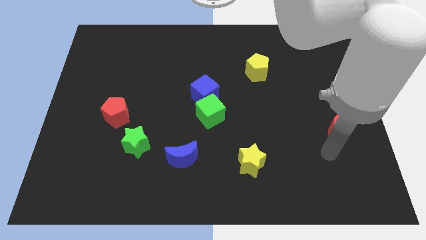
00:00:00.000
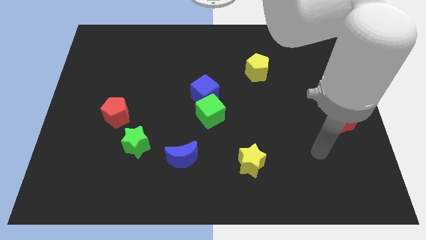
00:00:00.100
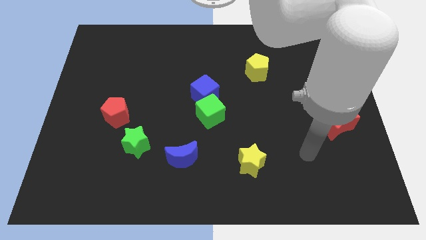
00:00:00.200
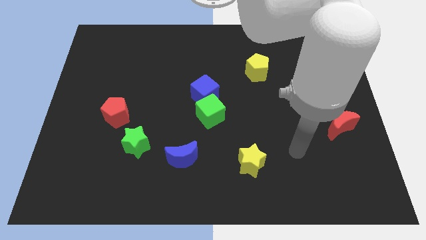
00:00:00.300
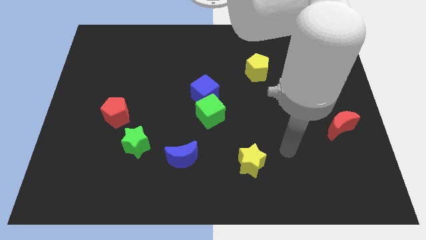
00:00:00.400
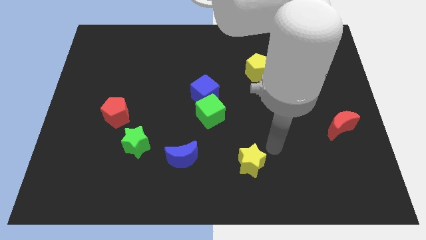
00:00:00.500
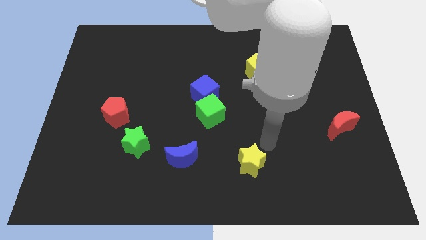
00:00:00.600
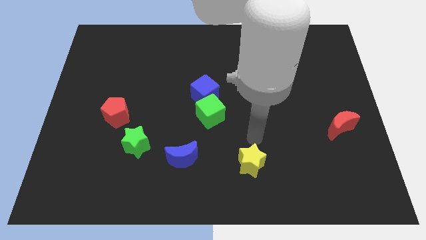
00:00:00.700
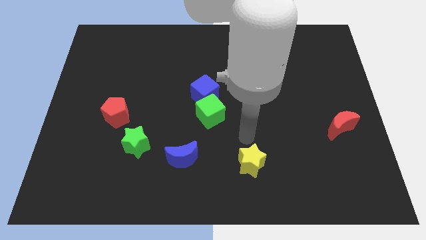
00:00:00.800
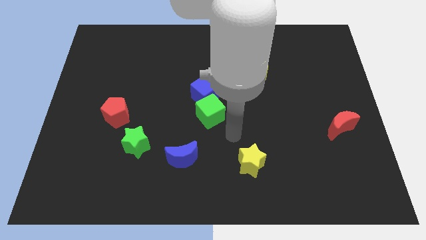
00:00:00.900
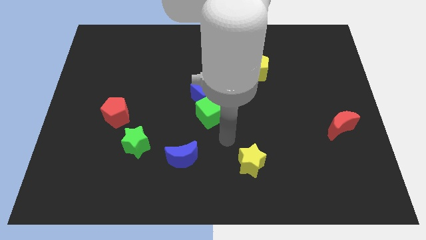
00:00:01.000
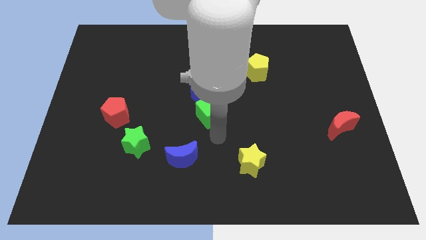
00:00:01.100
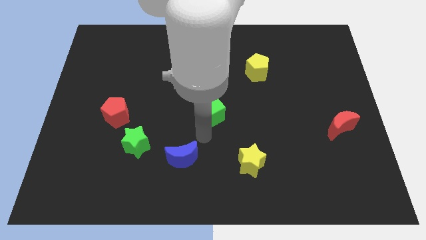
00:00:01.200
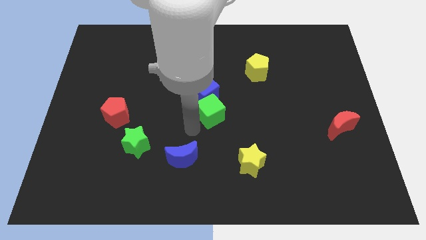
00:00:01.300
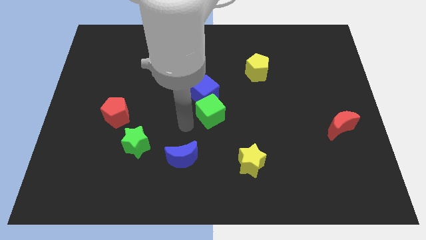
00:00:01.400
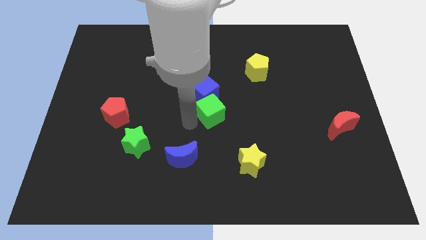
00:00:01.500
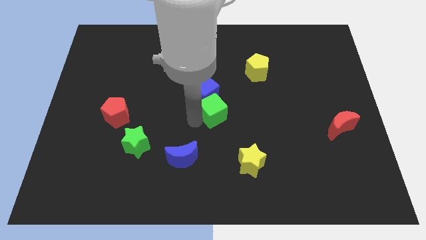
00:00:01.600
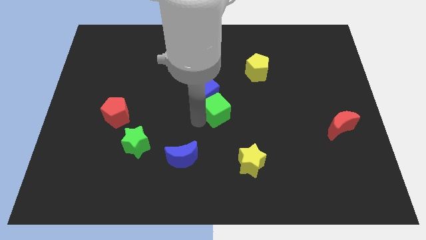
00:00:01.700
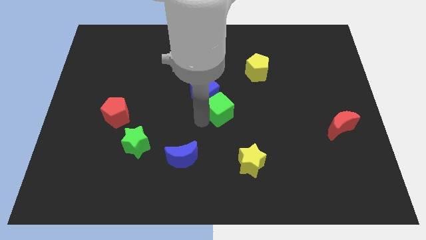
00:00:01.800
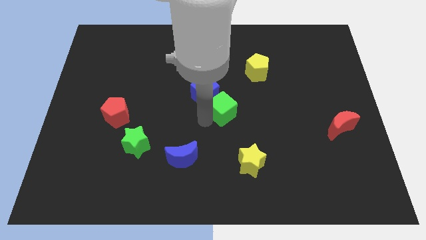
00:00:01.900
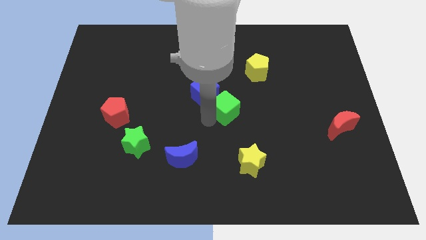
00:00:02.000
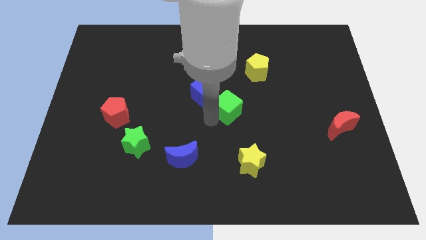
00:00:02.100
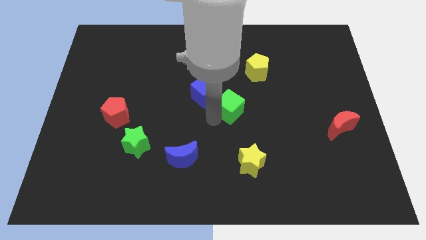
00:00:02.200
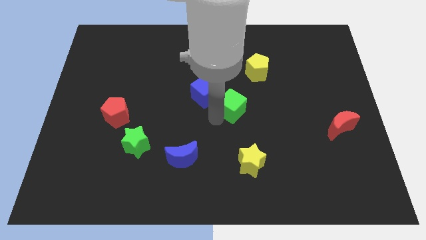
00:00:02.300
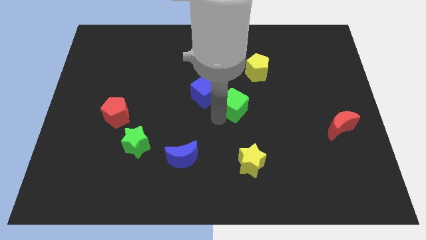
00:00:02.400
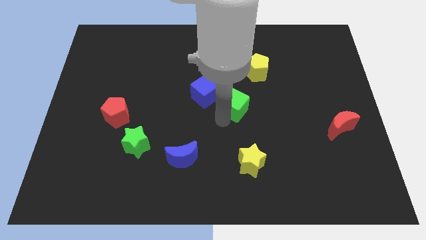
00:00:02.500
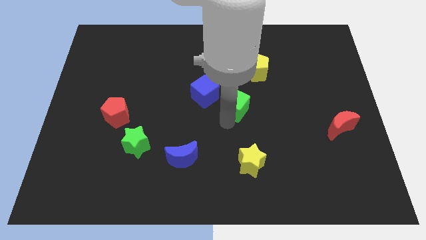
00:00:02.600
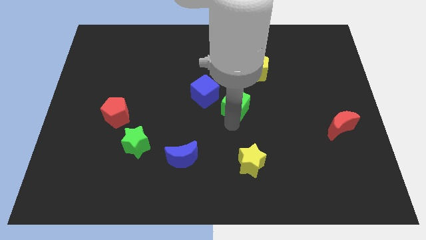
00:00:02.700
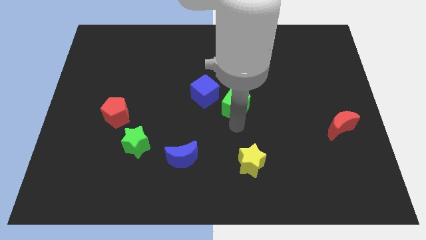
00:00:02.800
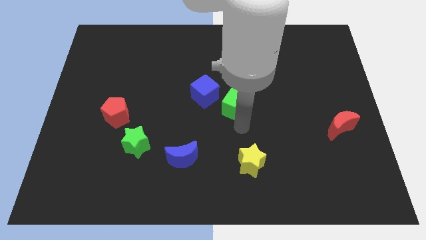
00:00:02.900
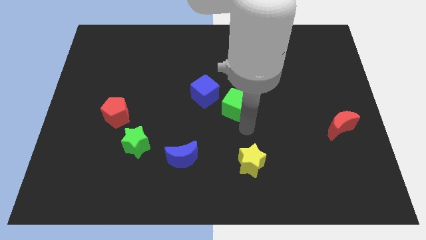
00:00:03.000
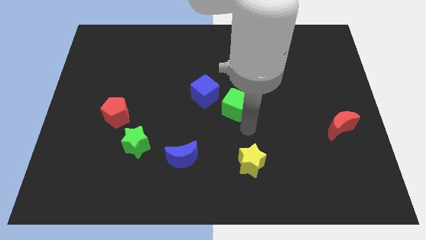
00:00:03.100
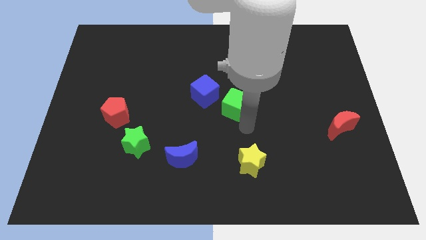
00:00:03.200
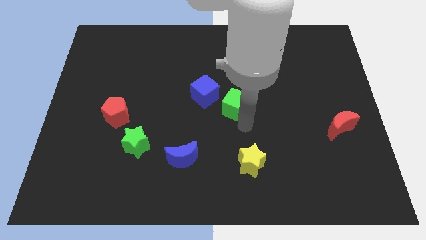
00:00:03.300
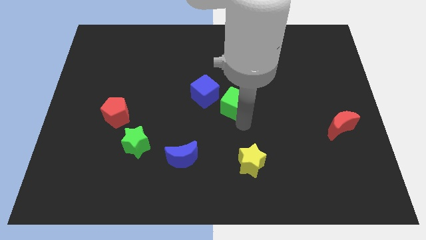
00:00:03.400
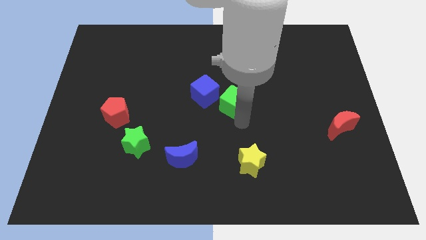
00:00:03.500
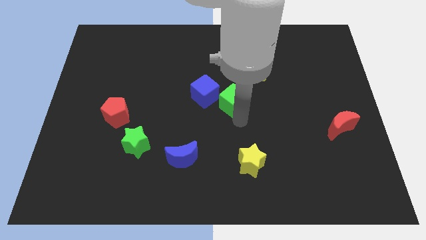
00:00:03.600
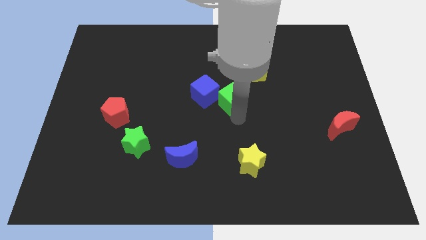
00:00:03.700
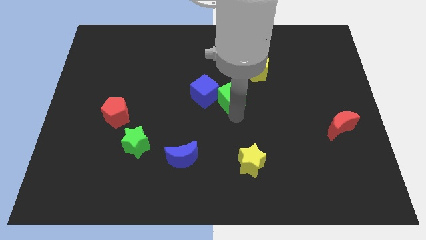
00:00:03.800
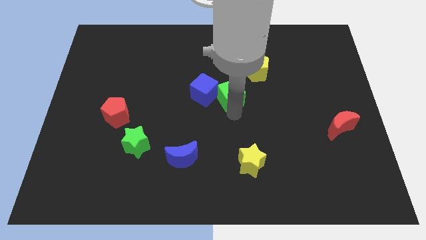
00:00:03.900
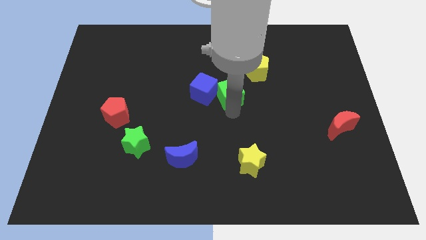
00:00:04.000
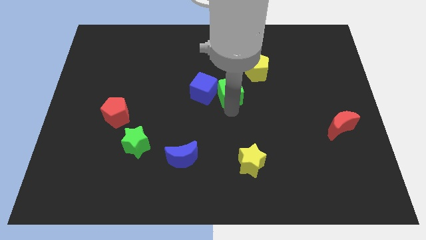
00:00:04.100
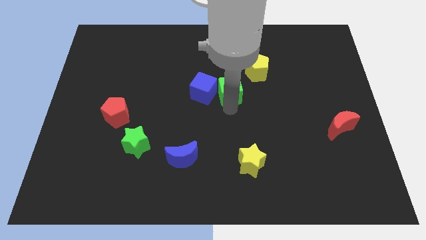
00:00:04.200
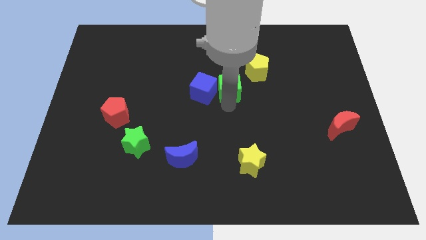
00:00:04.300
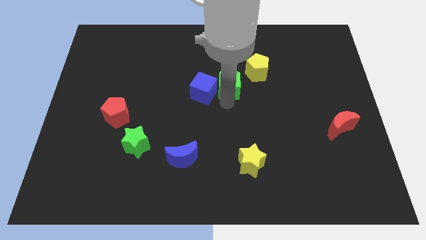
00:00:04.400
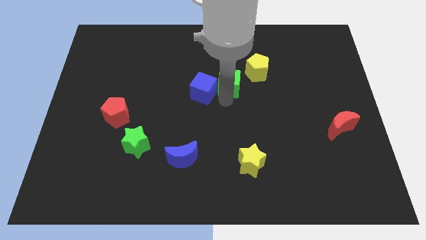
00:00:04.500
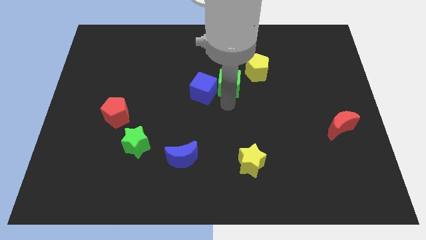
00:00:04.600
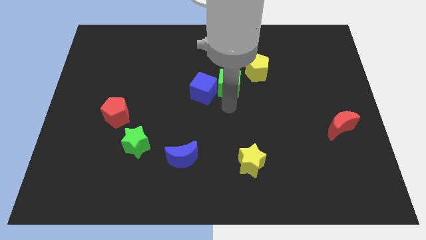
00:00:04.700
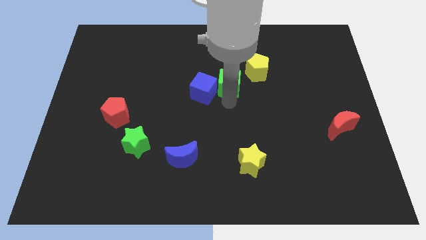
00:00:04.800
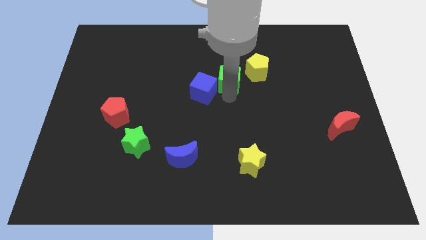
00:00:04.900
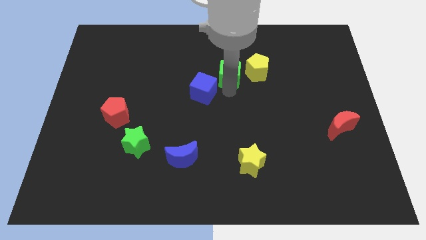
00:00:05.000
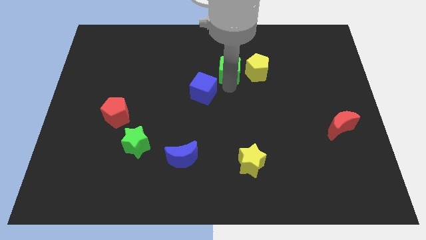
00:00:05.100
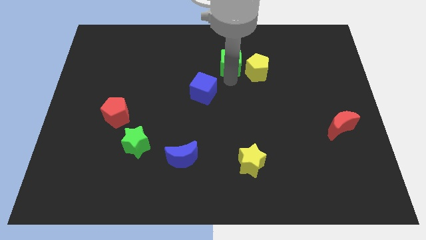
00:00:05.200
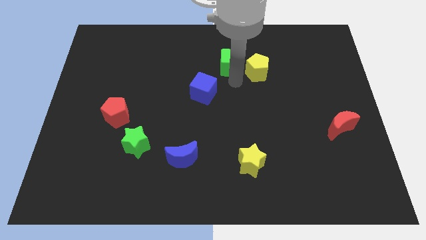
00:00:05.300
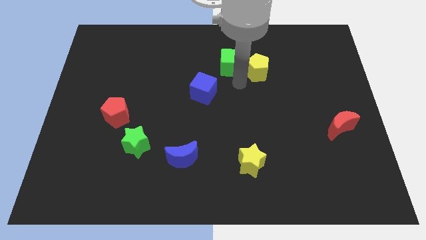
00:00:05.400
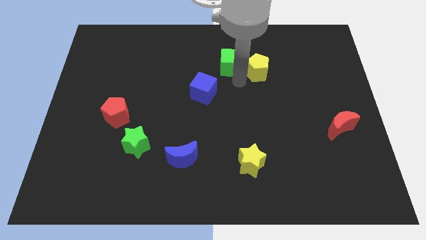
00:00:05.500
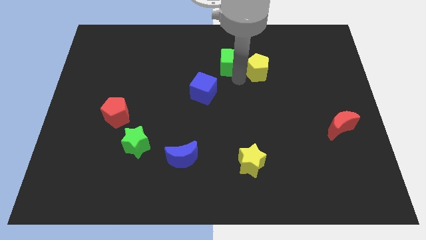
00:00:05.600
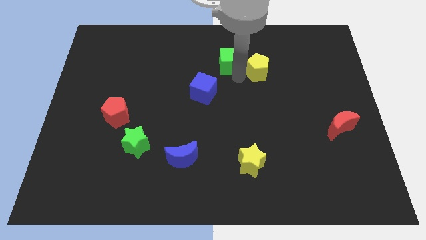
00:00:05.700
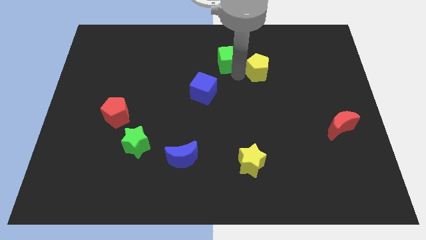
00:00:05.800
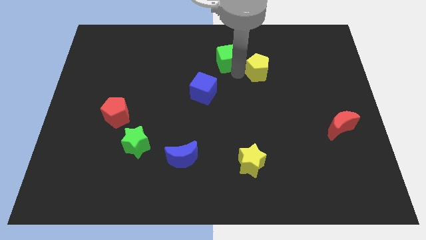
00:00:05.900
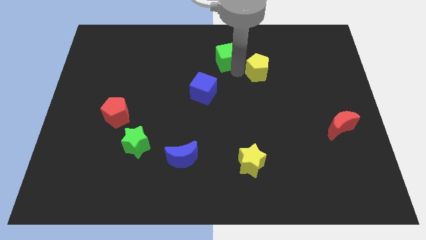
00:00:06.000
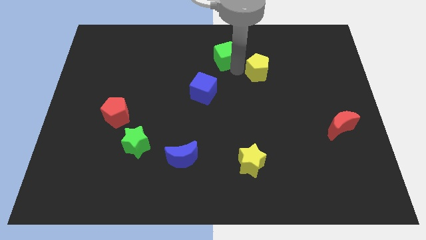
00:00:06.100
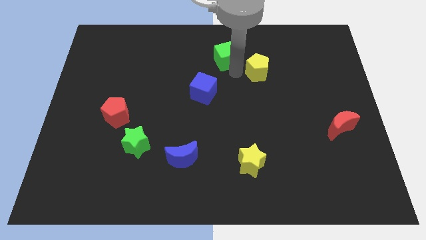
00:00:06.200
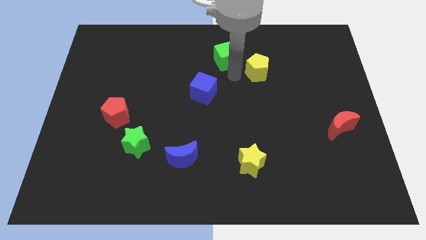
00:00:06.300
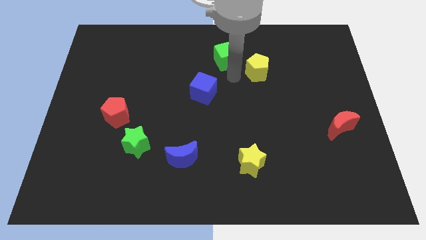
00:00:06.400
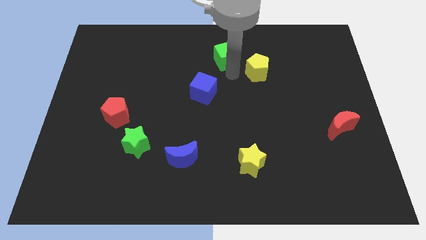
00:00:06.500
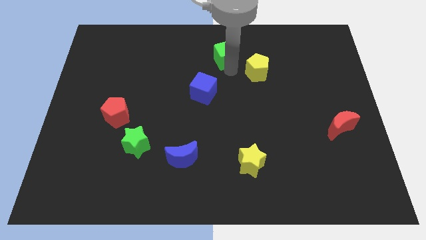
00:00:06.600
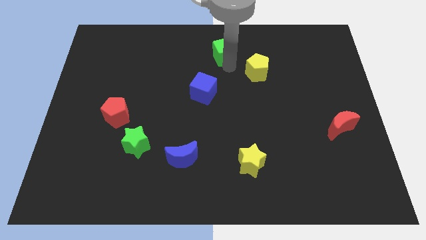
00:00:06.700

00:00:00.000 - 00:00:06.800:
move the green cube to the top

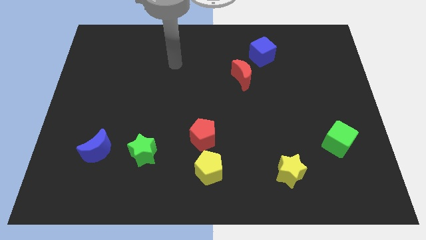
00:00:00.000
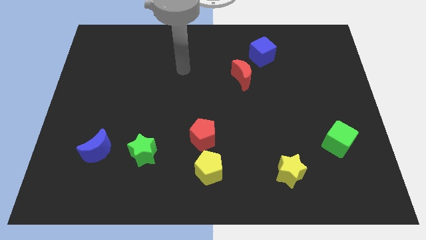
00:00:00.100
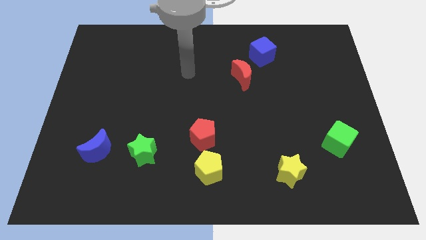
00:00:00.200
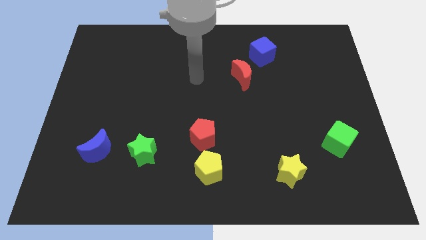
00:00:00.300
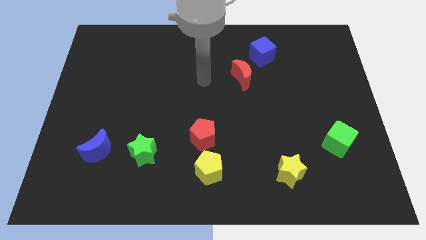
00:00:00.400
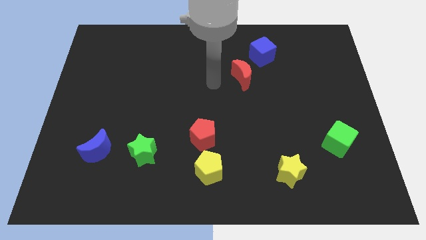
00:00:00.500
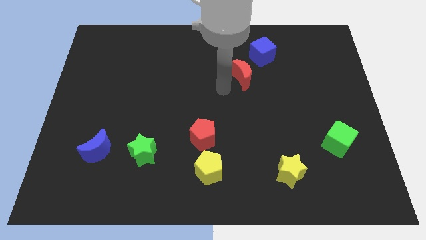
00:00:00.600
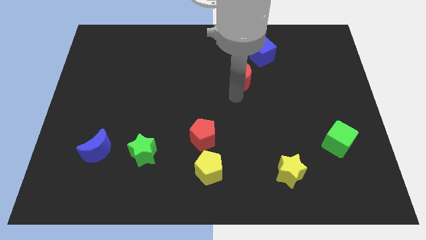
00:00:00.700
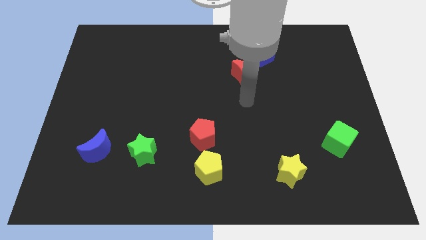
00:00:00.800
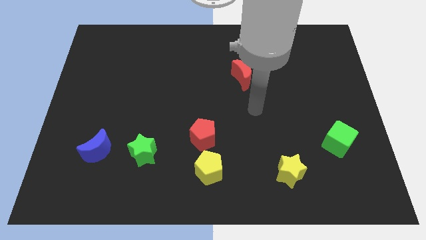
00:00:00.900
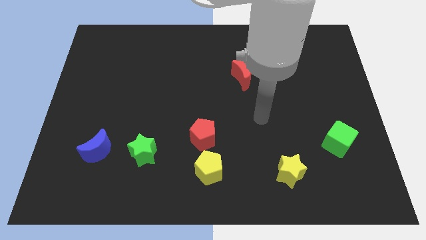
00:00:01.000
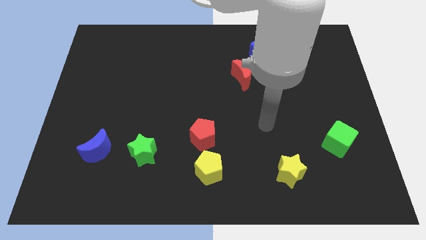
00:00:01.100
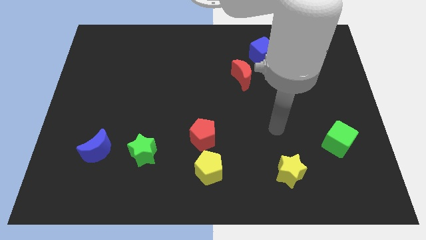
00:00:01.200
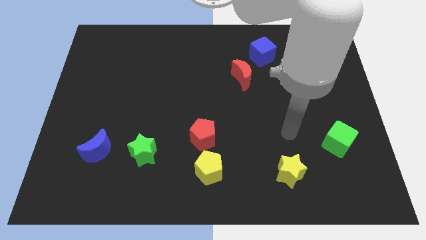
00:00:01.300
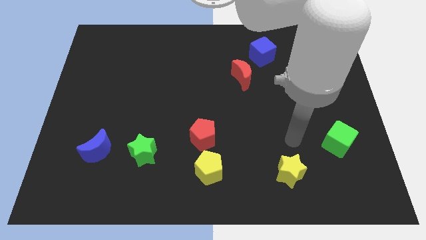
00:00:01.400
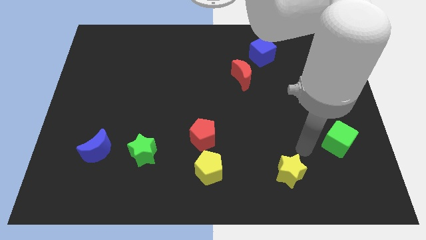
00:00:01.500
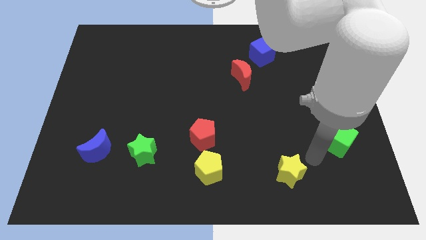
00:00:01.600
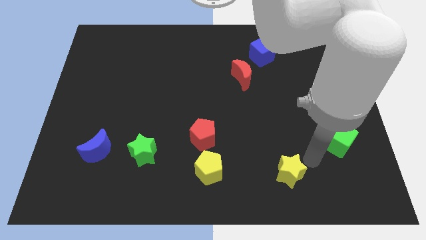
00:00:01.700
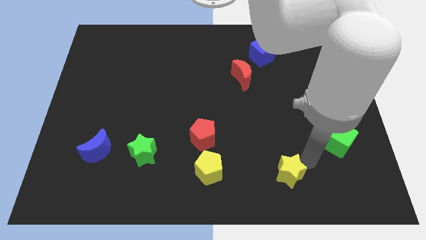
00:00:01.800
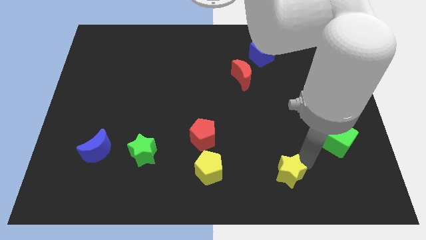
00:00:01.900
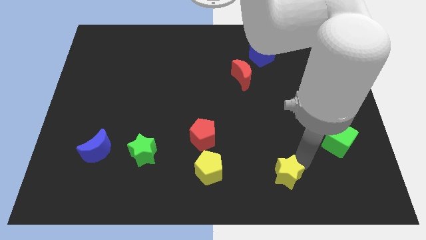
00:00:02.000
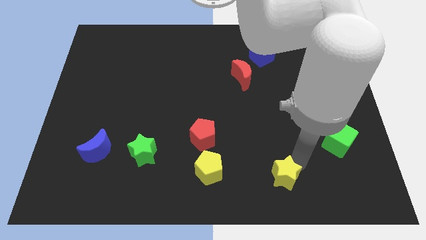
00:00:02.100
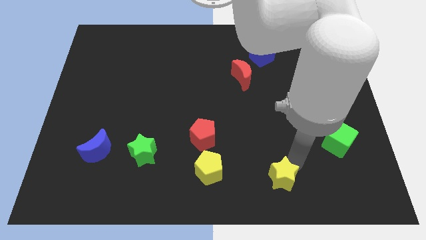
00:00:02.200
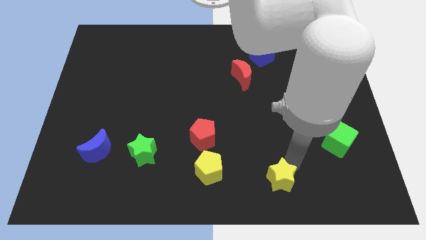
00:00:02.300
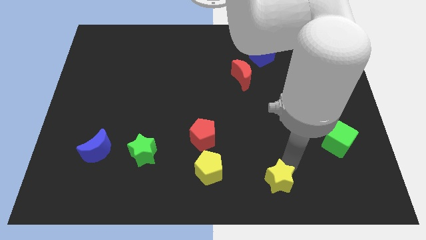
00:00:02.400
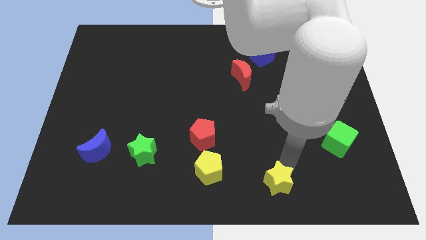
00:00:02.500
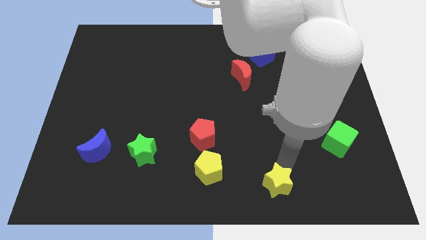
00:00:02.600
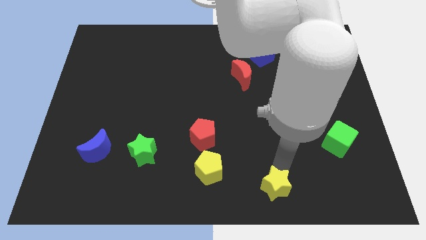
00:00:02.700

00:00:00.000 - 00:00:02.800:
push the yellow star to the bottom side
